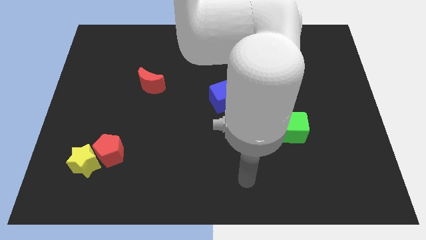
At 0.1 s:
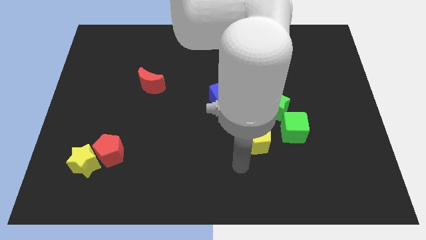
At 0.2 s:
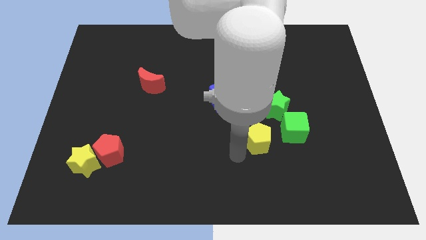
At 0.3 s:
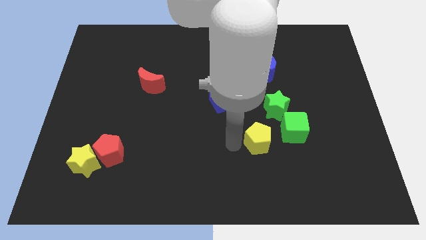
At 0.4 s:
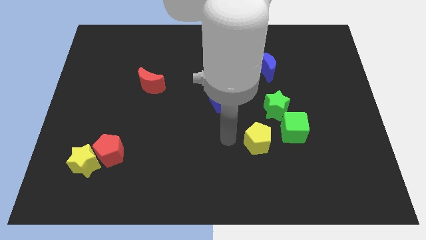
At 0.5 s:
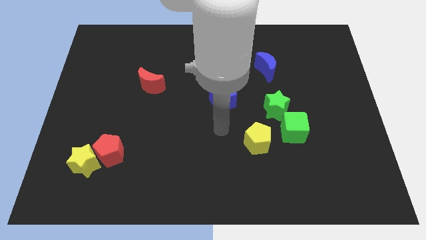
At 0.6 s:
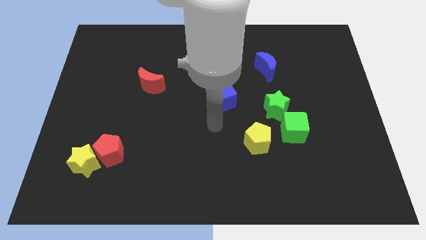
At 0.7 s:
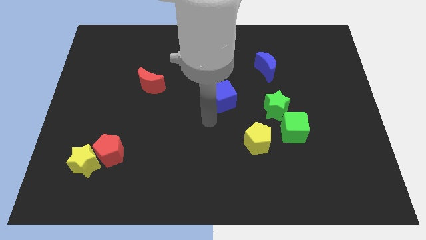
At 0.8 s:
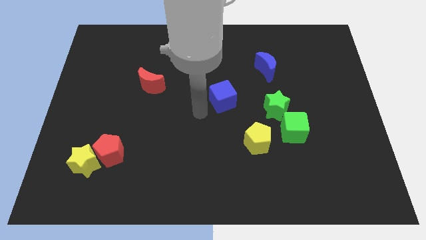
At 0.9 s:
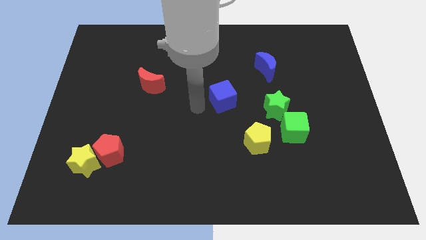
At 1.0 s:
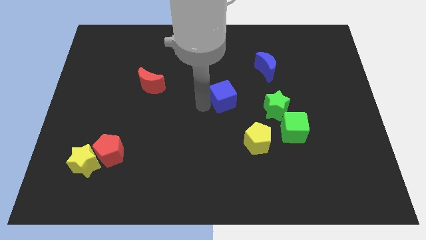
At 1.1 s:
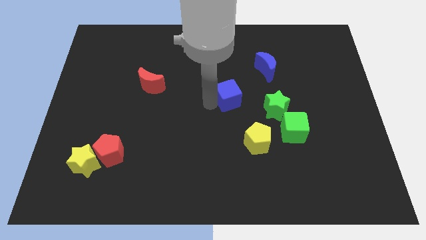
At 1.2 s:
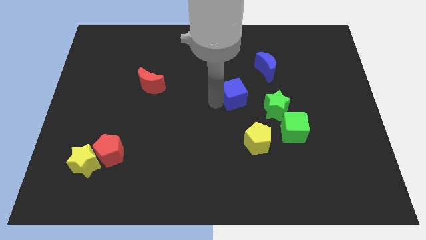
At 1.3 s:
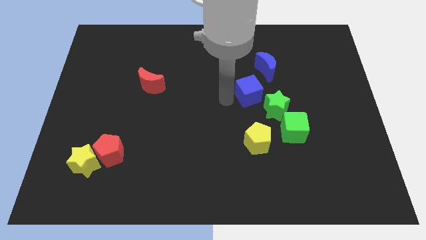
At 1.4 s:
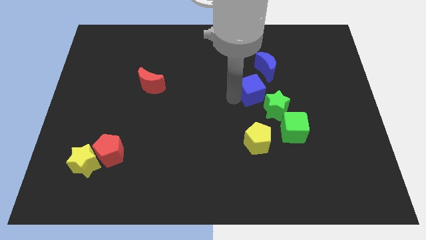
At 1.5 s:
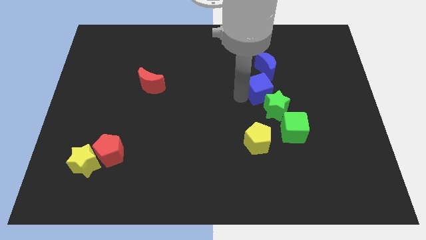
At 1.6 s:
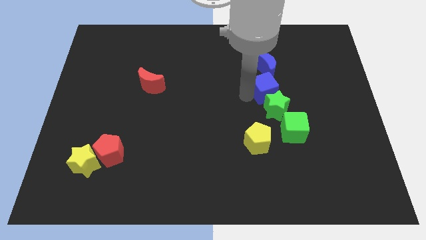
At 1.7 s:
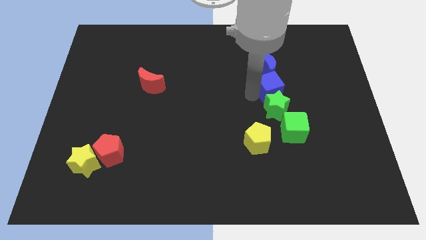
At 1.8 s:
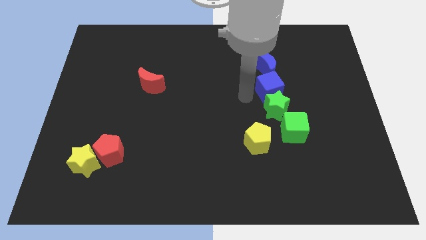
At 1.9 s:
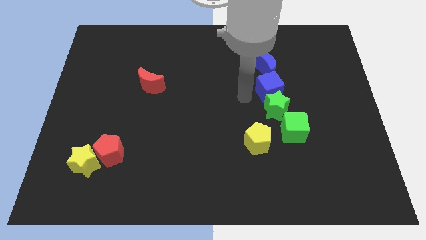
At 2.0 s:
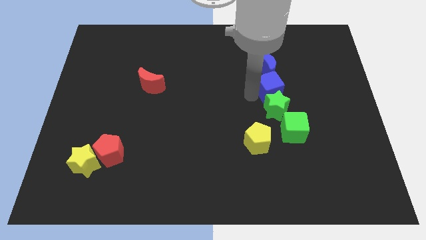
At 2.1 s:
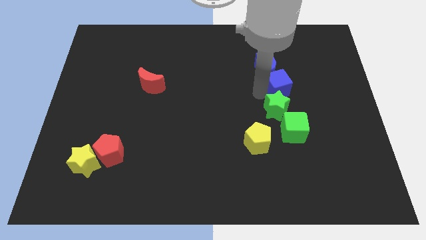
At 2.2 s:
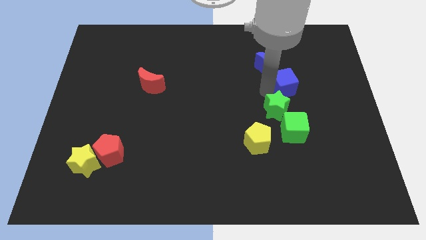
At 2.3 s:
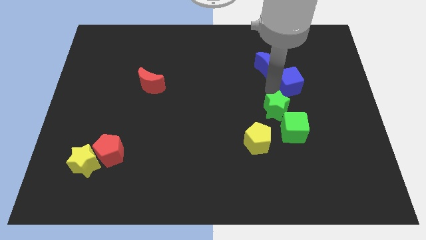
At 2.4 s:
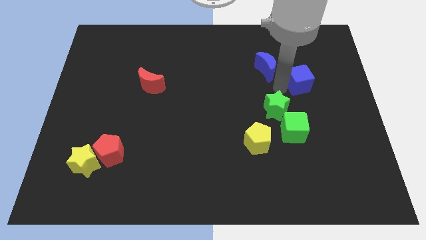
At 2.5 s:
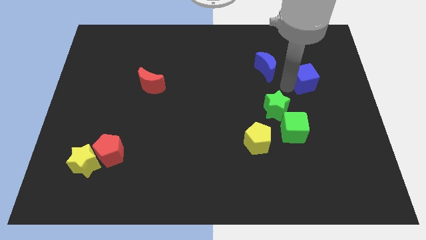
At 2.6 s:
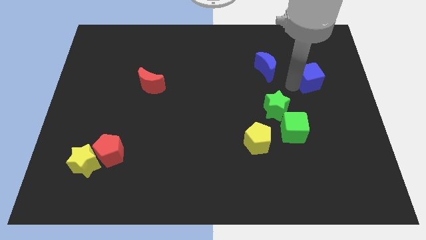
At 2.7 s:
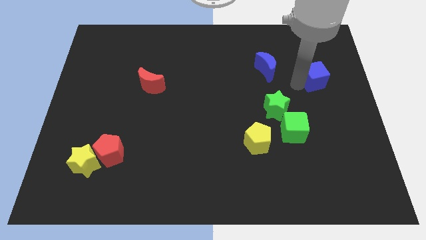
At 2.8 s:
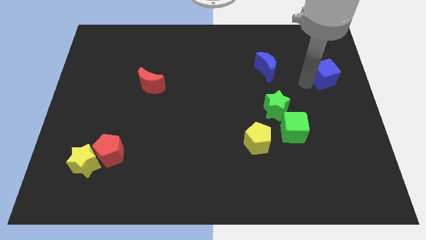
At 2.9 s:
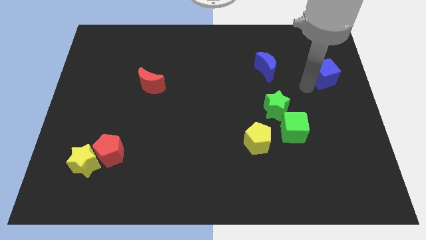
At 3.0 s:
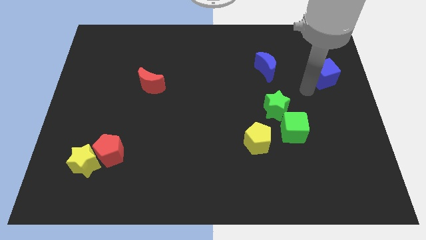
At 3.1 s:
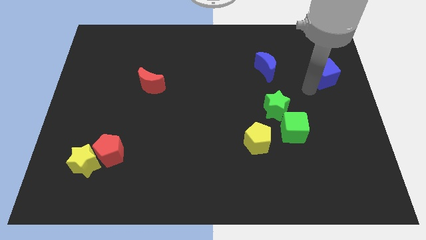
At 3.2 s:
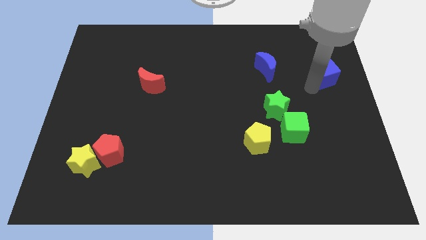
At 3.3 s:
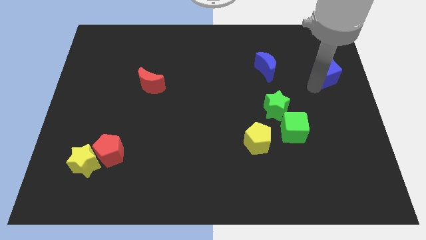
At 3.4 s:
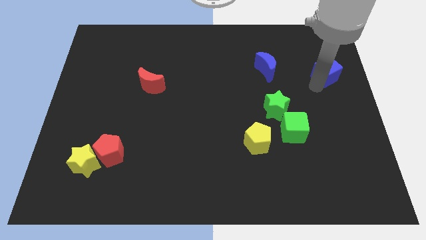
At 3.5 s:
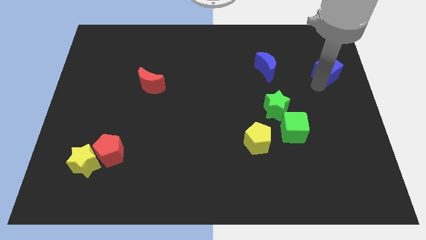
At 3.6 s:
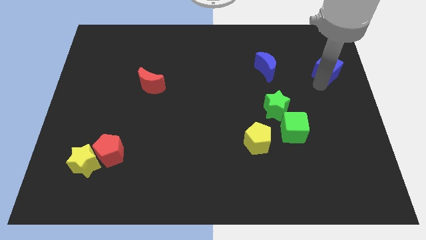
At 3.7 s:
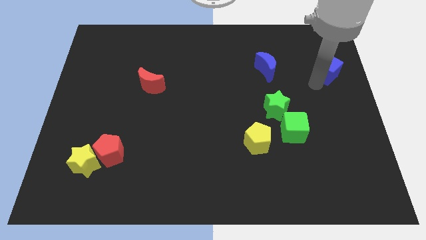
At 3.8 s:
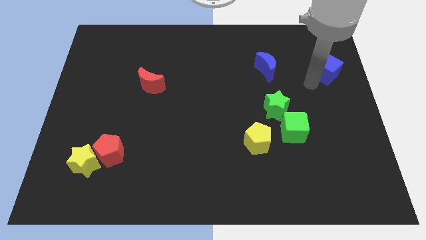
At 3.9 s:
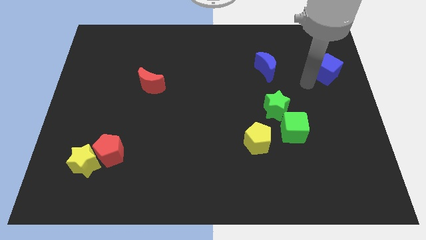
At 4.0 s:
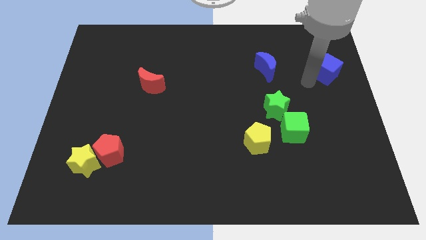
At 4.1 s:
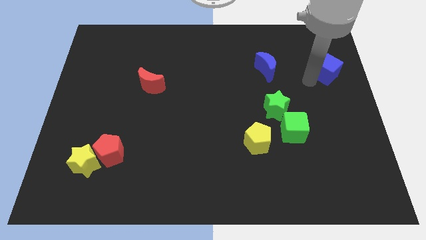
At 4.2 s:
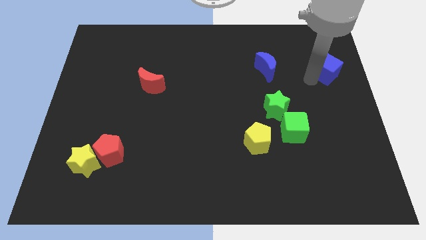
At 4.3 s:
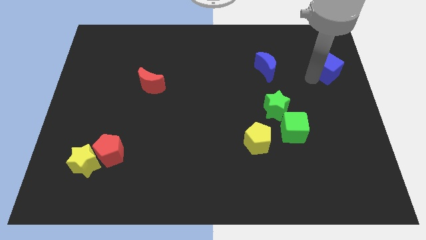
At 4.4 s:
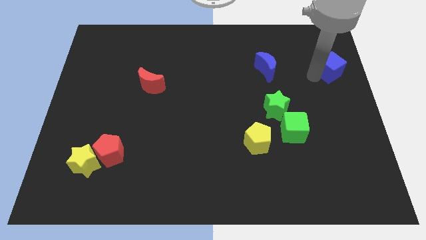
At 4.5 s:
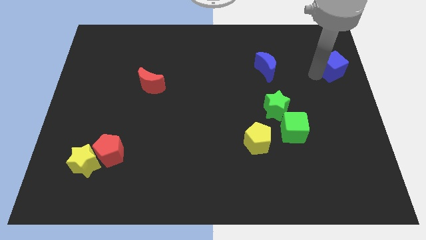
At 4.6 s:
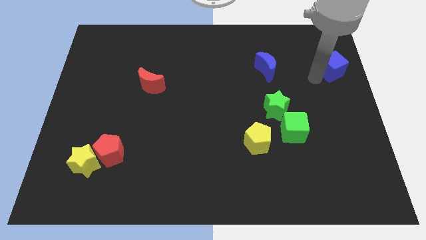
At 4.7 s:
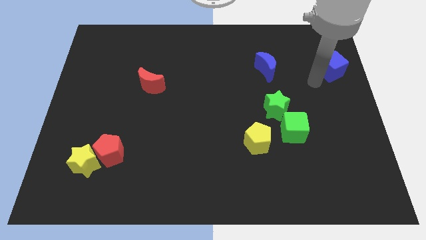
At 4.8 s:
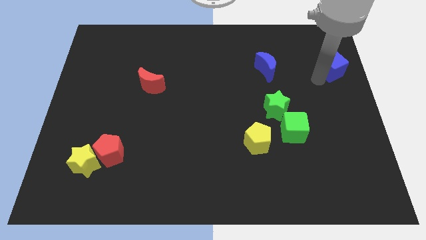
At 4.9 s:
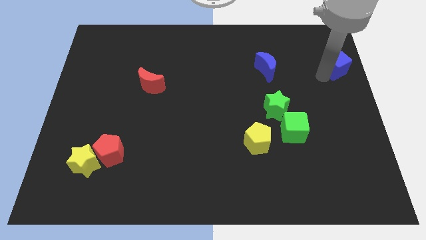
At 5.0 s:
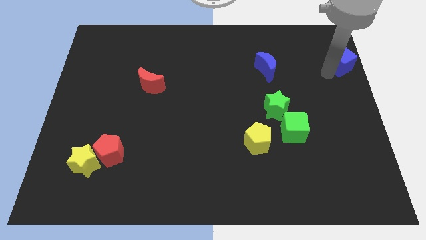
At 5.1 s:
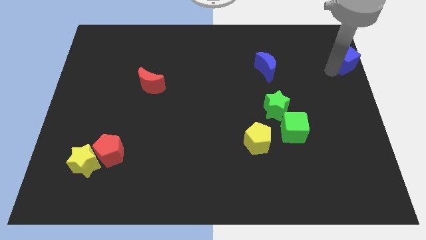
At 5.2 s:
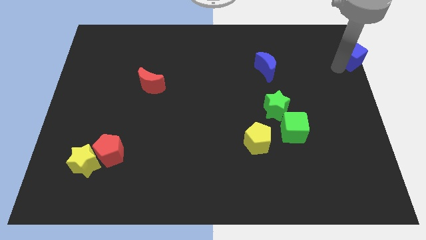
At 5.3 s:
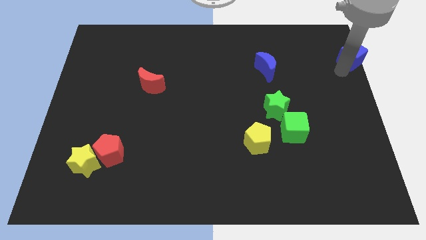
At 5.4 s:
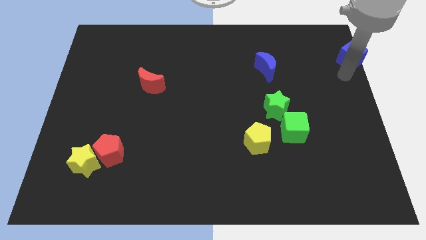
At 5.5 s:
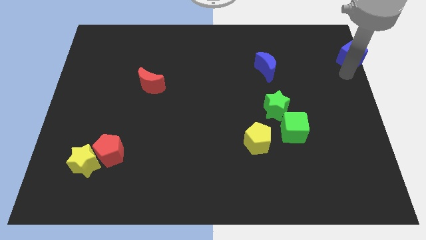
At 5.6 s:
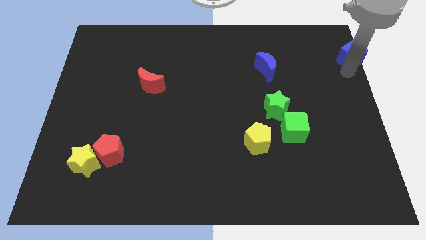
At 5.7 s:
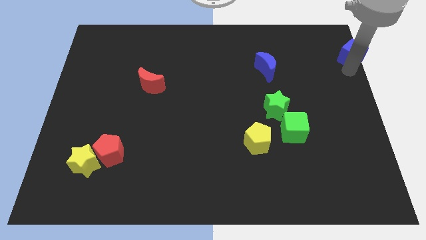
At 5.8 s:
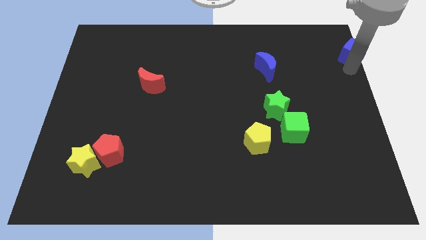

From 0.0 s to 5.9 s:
push the blue cube to the top right corner
